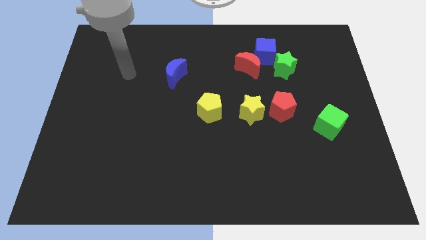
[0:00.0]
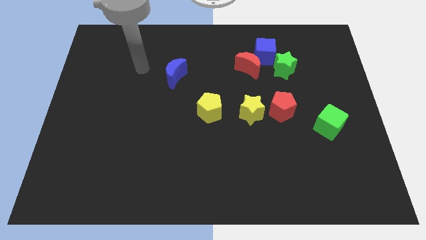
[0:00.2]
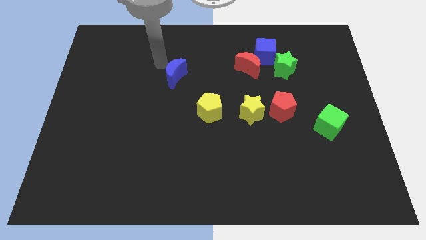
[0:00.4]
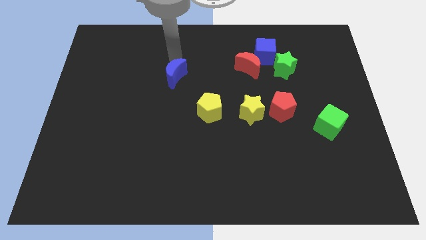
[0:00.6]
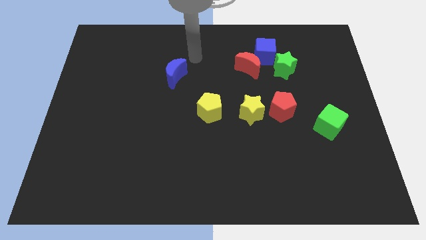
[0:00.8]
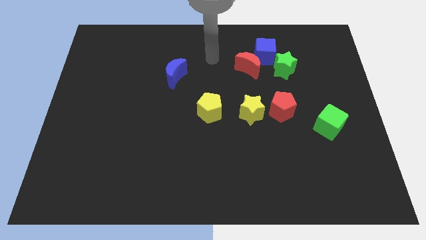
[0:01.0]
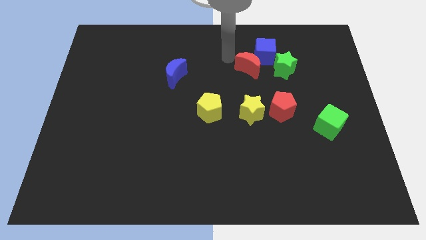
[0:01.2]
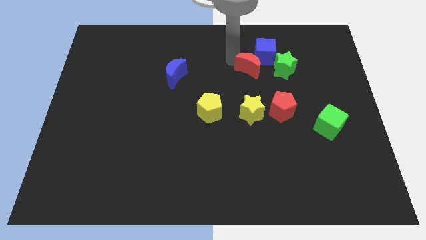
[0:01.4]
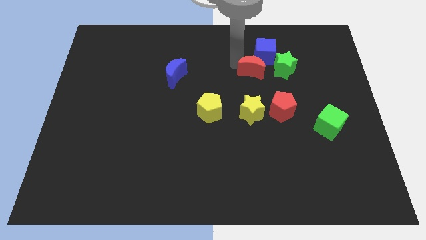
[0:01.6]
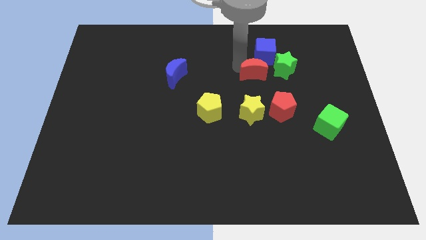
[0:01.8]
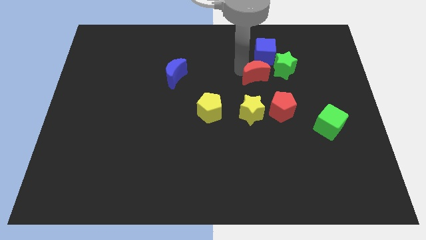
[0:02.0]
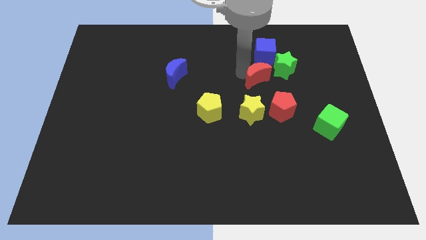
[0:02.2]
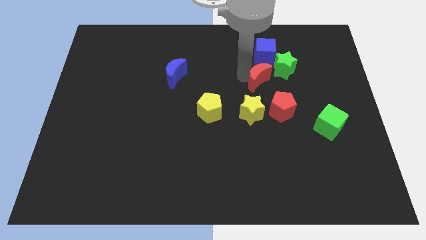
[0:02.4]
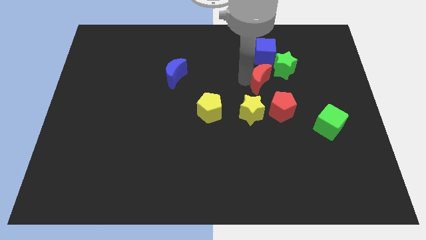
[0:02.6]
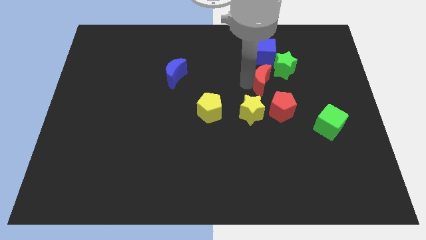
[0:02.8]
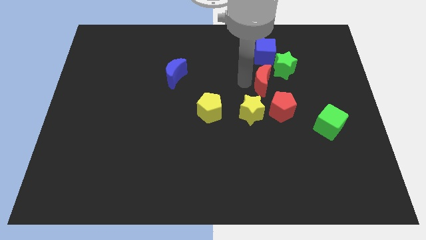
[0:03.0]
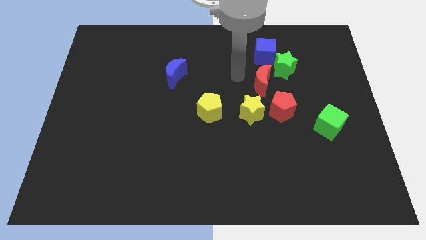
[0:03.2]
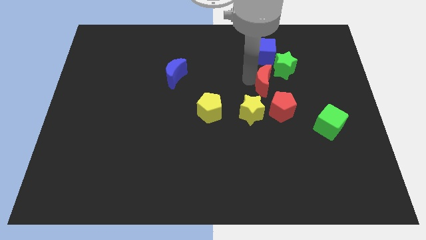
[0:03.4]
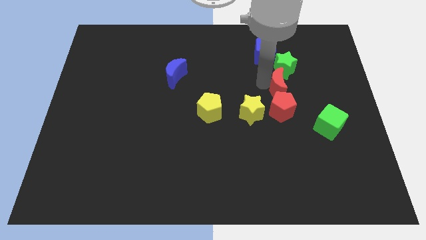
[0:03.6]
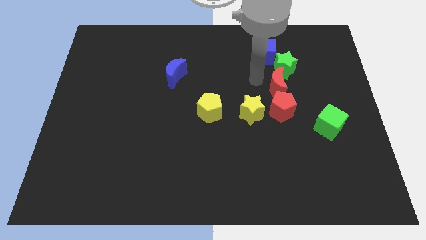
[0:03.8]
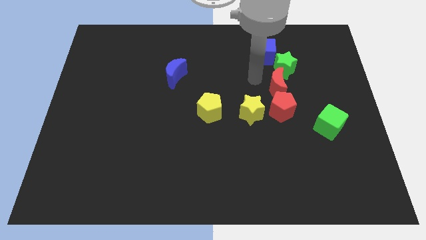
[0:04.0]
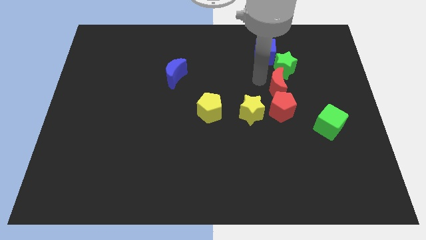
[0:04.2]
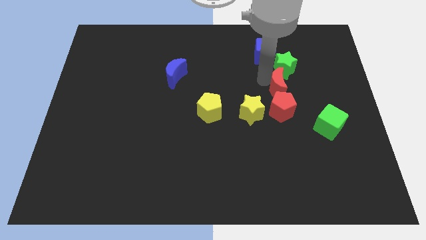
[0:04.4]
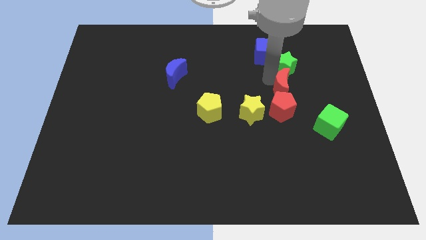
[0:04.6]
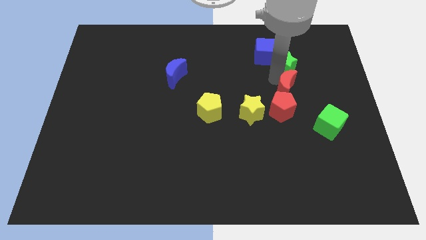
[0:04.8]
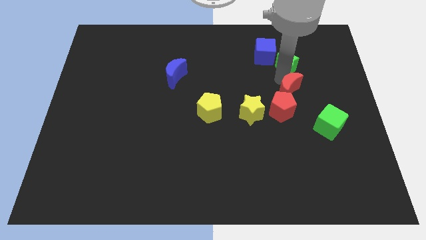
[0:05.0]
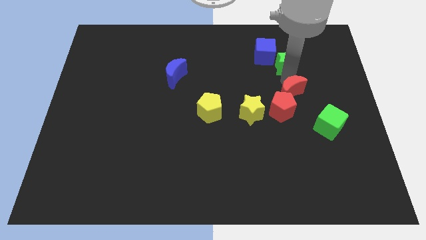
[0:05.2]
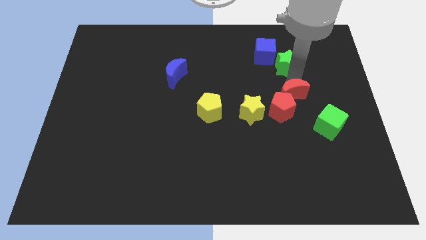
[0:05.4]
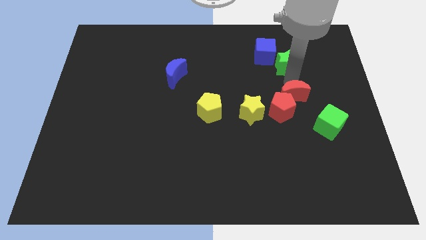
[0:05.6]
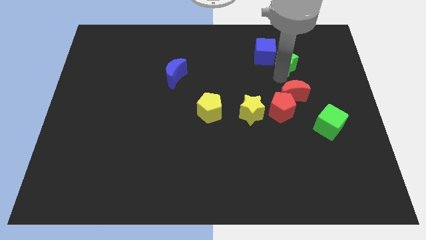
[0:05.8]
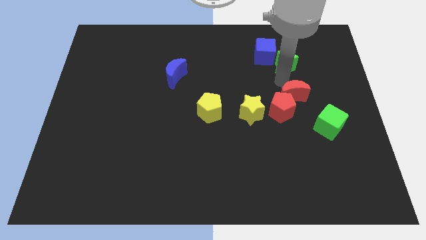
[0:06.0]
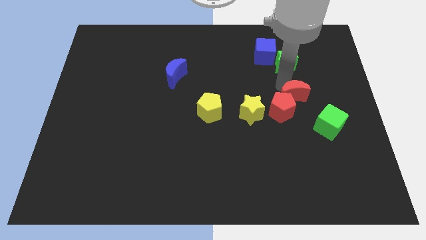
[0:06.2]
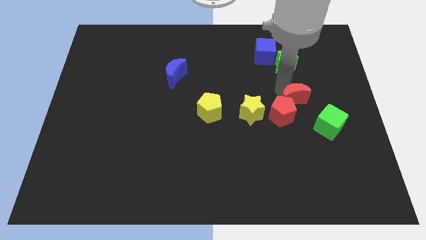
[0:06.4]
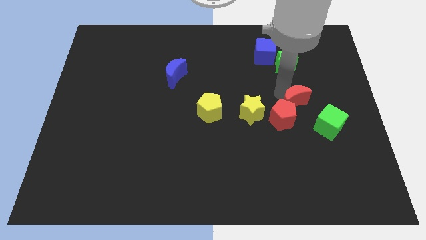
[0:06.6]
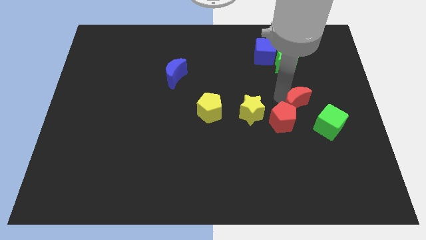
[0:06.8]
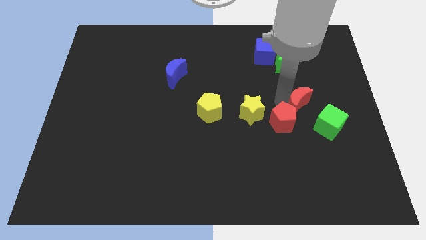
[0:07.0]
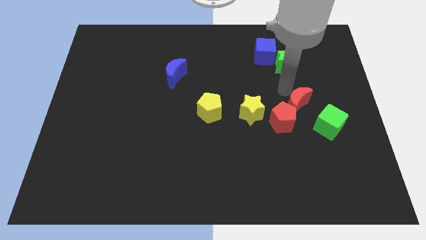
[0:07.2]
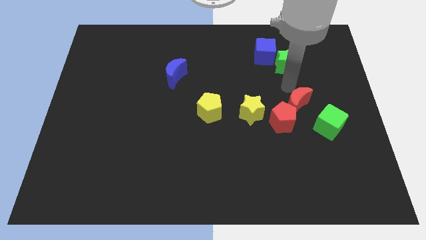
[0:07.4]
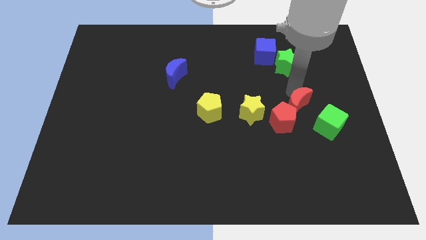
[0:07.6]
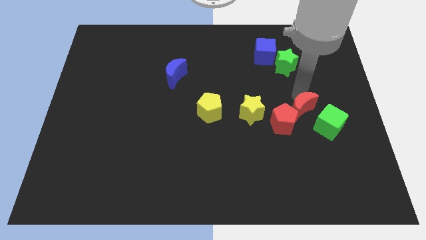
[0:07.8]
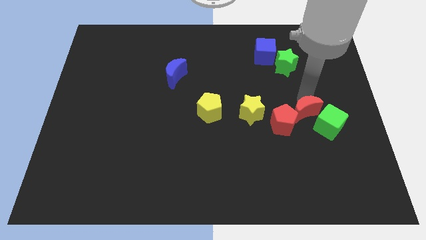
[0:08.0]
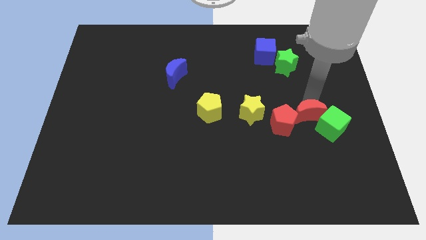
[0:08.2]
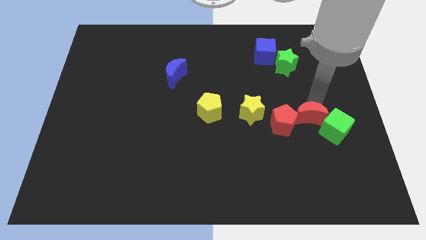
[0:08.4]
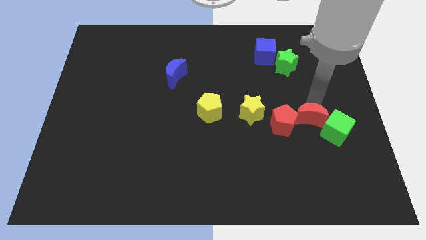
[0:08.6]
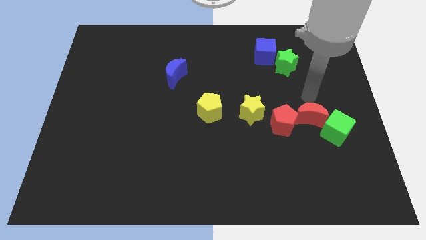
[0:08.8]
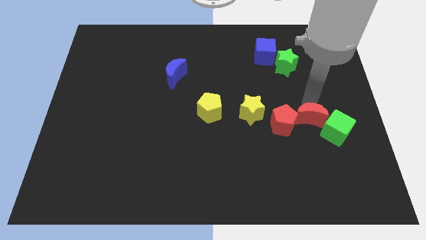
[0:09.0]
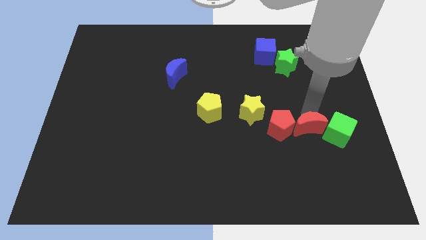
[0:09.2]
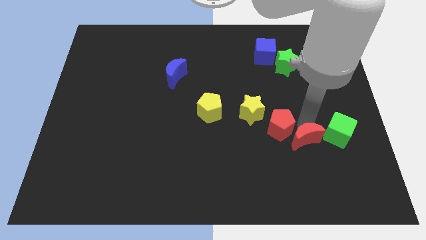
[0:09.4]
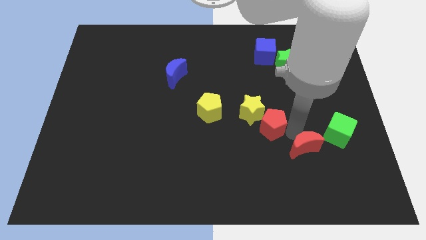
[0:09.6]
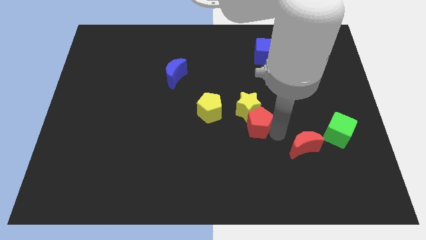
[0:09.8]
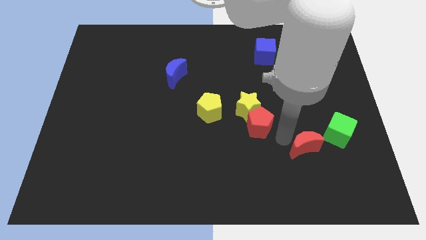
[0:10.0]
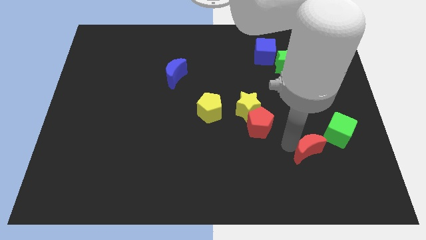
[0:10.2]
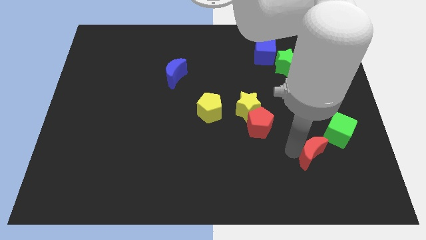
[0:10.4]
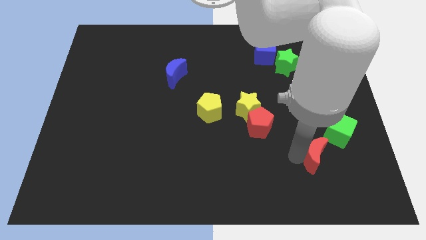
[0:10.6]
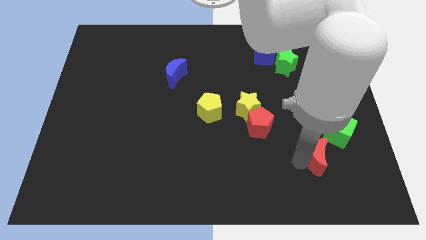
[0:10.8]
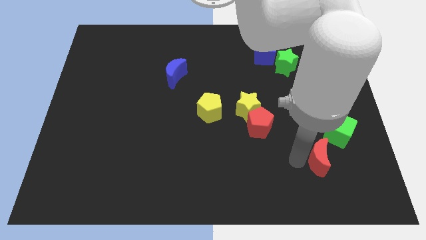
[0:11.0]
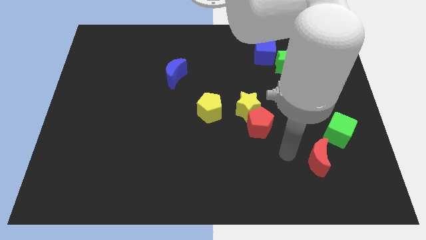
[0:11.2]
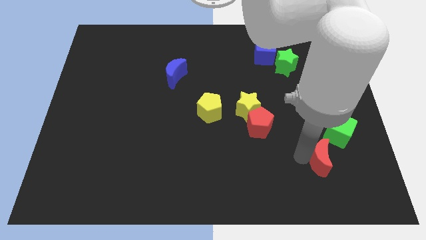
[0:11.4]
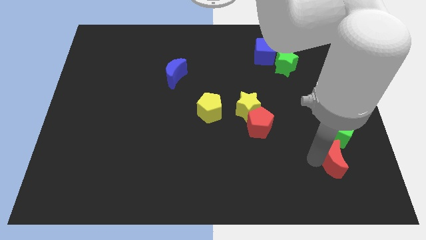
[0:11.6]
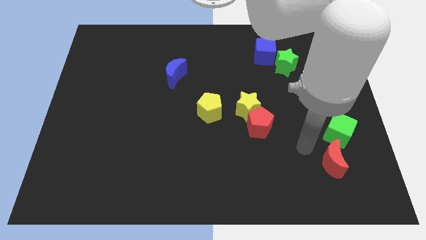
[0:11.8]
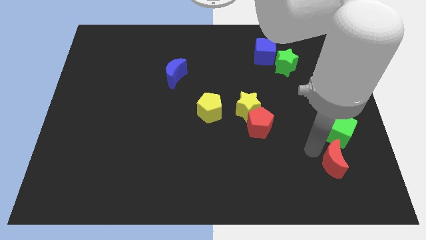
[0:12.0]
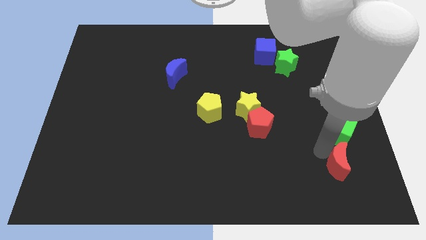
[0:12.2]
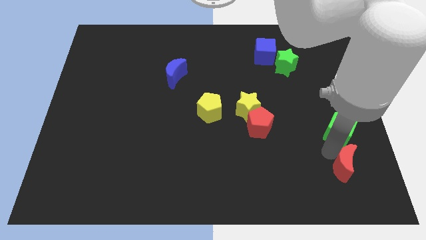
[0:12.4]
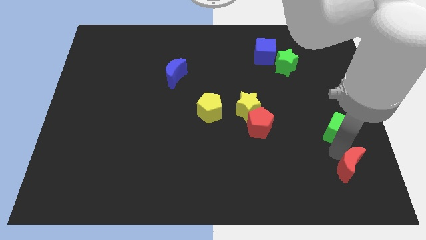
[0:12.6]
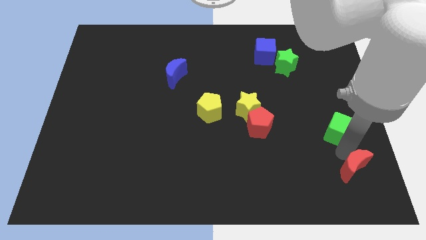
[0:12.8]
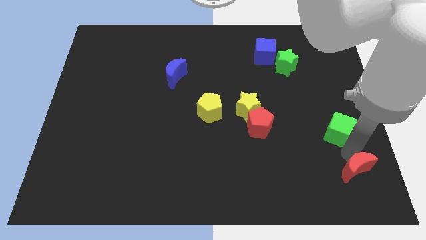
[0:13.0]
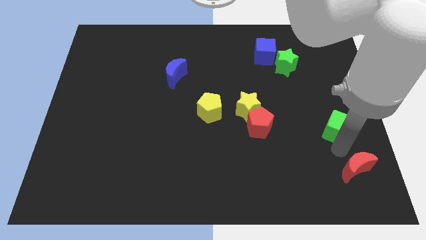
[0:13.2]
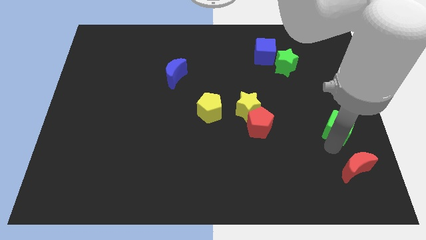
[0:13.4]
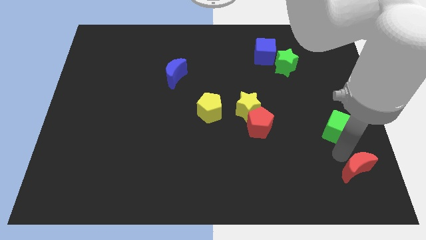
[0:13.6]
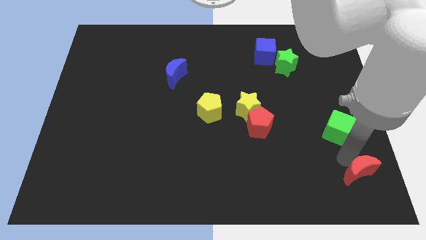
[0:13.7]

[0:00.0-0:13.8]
put the red moon to the lower right corner
